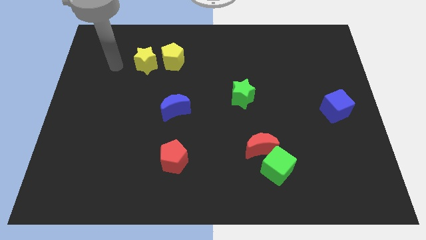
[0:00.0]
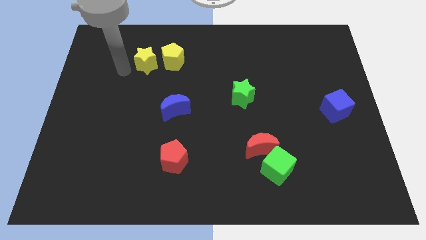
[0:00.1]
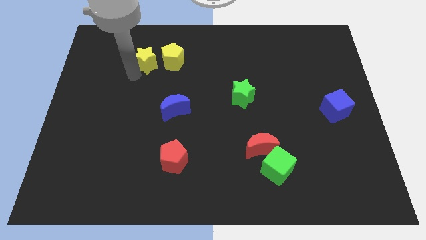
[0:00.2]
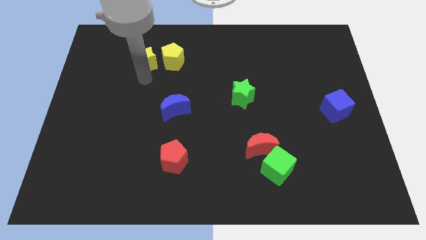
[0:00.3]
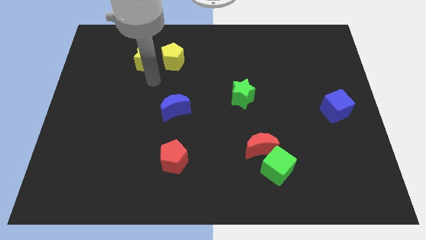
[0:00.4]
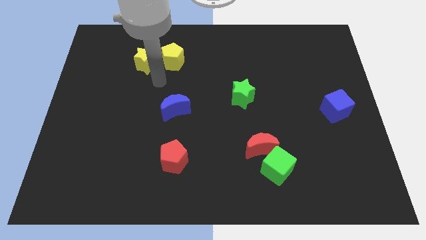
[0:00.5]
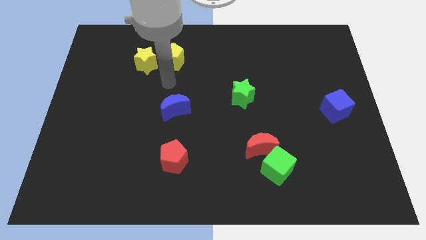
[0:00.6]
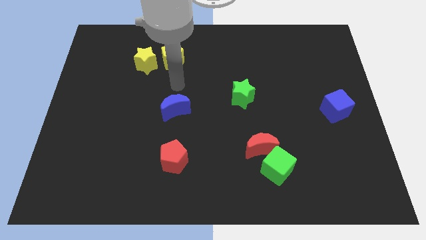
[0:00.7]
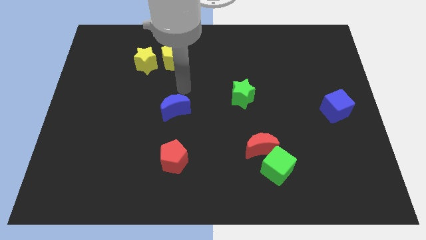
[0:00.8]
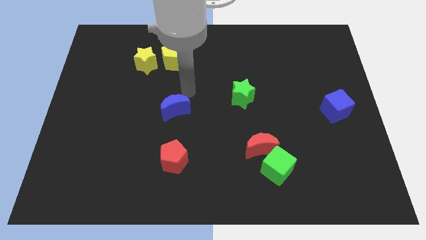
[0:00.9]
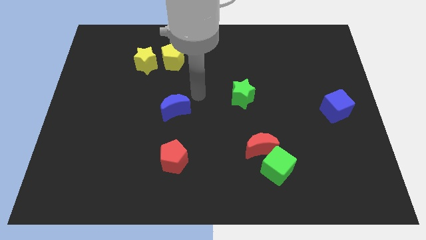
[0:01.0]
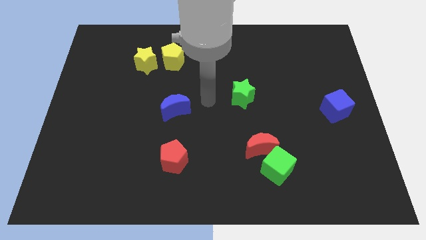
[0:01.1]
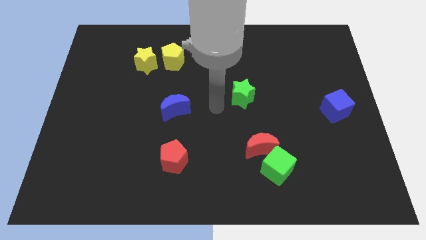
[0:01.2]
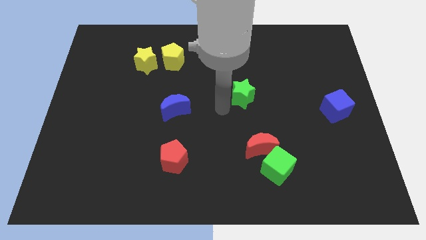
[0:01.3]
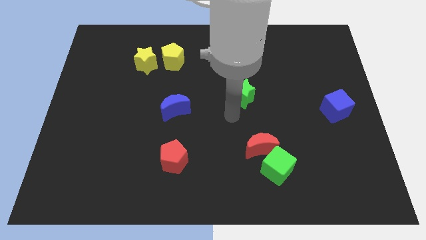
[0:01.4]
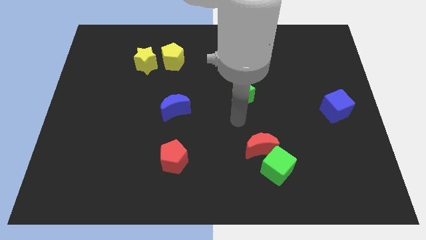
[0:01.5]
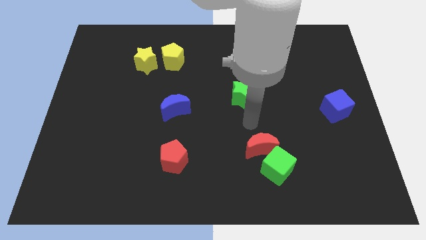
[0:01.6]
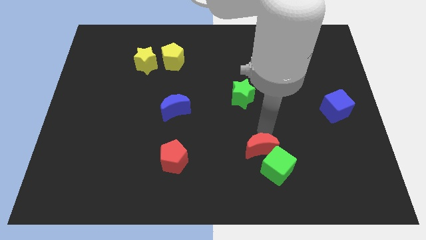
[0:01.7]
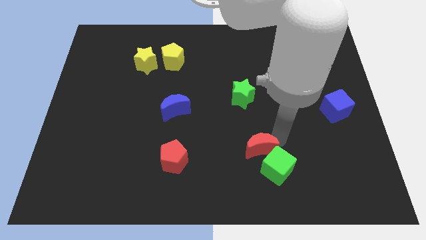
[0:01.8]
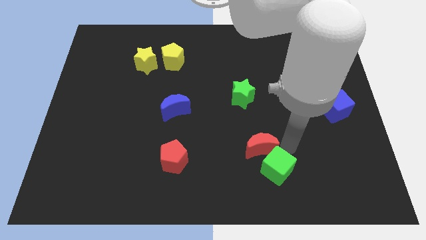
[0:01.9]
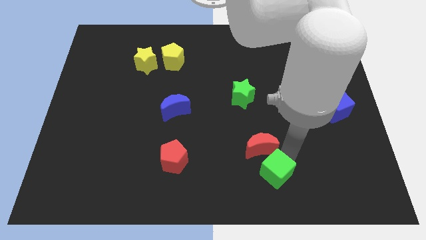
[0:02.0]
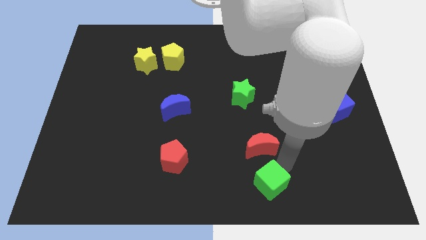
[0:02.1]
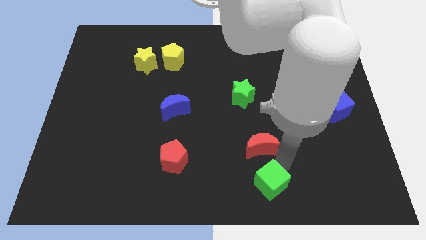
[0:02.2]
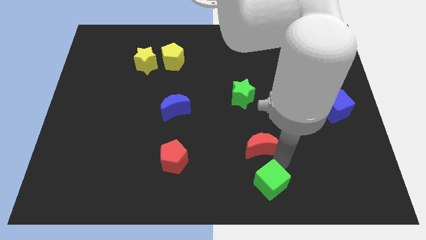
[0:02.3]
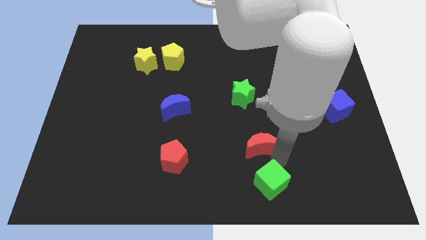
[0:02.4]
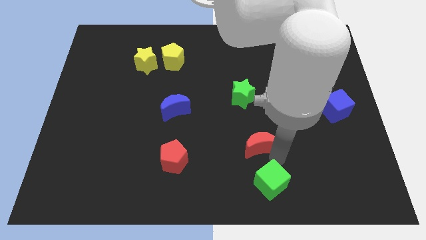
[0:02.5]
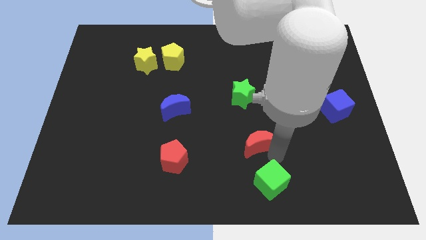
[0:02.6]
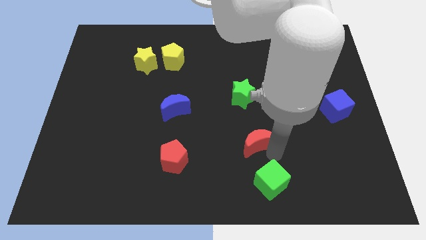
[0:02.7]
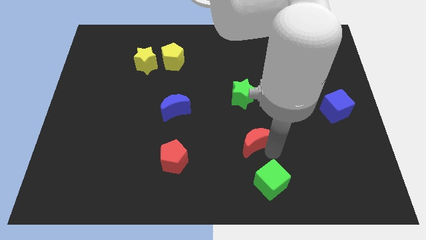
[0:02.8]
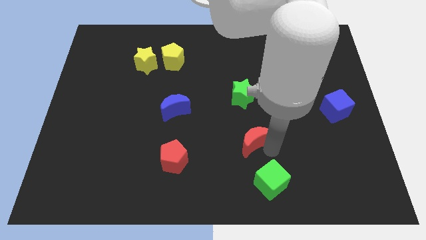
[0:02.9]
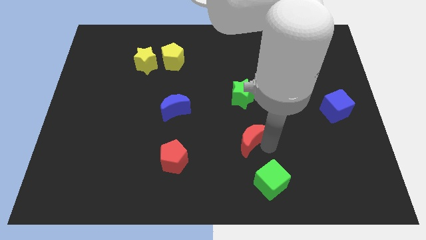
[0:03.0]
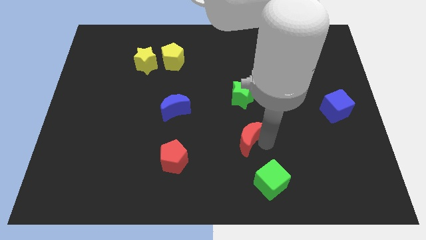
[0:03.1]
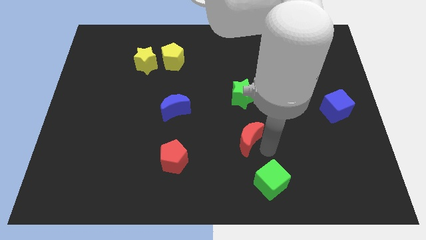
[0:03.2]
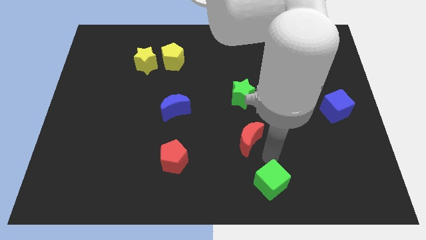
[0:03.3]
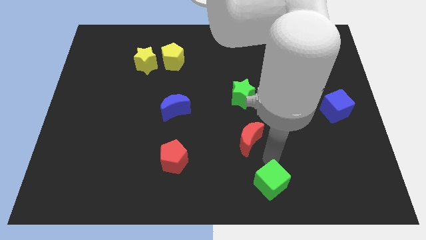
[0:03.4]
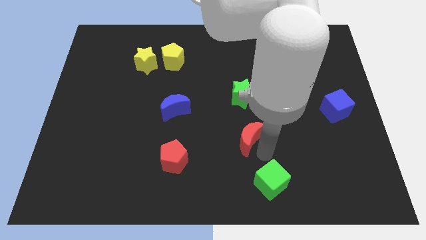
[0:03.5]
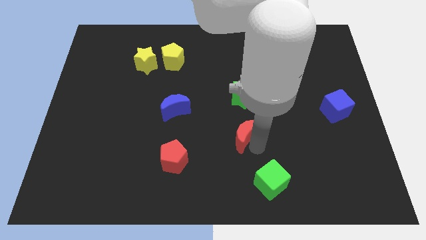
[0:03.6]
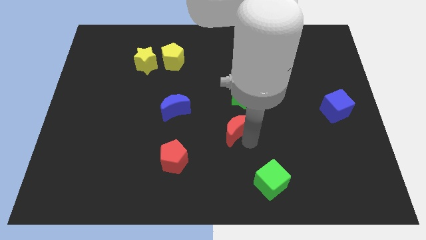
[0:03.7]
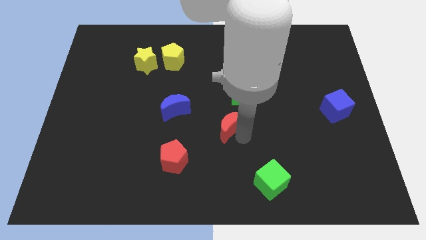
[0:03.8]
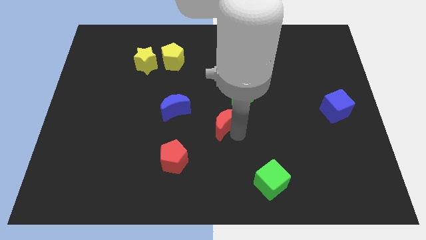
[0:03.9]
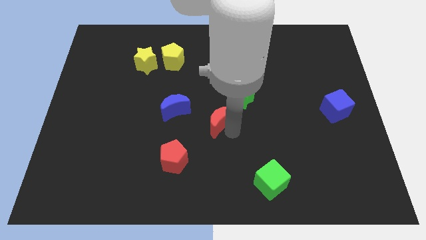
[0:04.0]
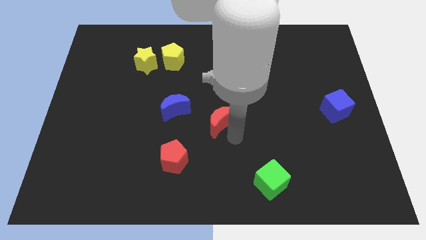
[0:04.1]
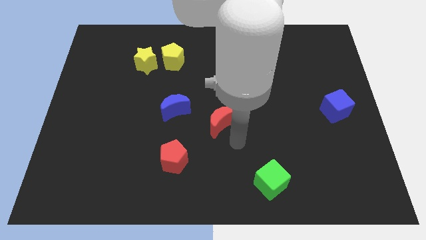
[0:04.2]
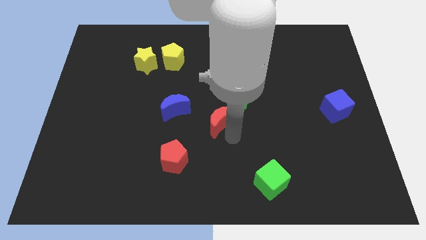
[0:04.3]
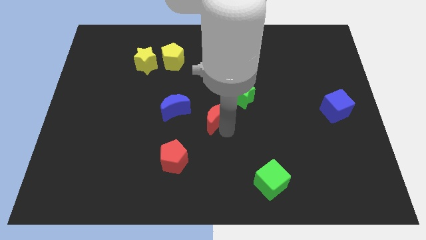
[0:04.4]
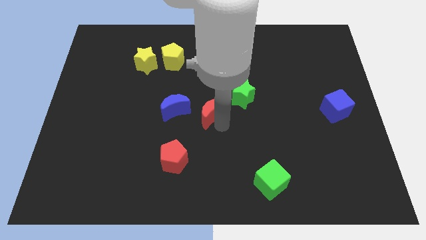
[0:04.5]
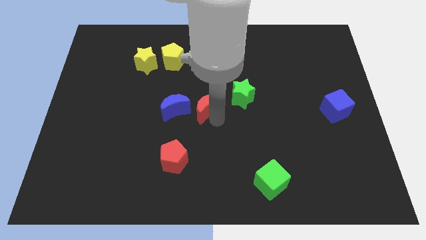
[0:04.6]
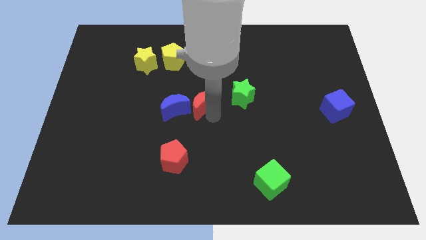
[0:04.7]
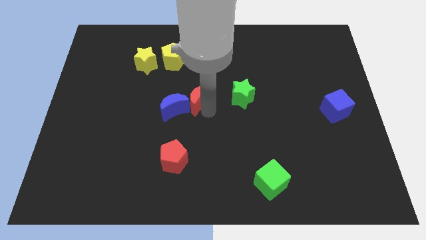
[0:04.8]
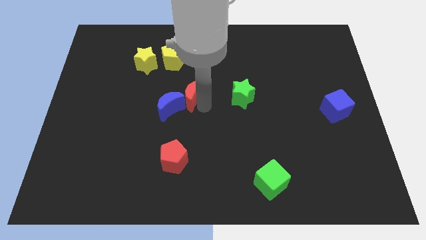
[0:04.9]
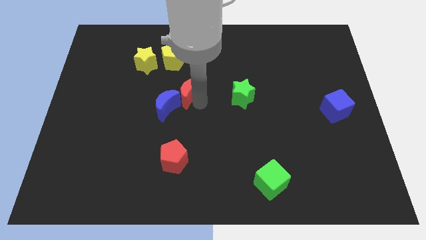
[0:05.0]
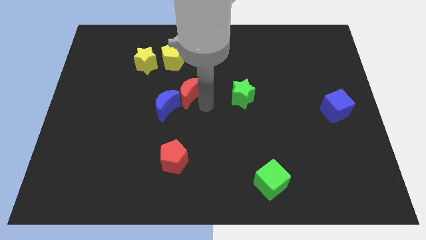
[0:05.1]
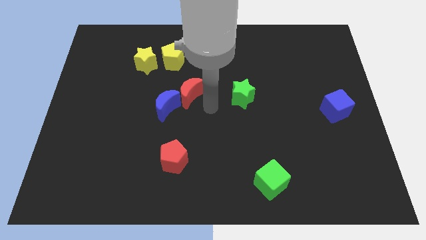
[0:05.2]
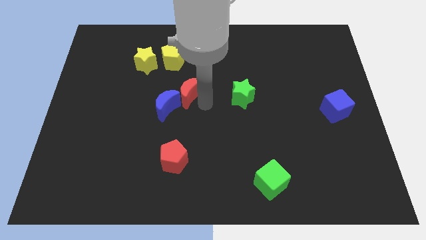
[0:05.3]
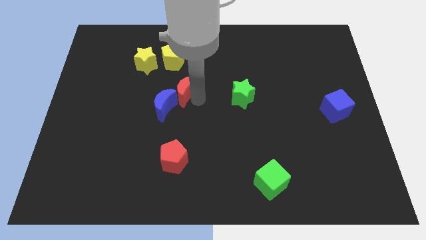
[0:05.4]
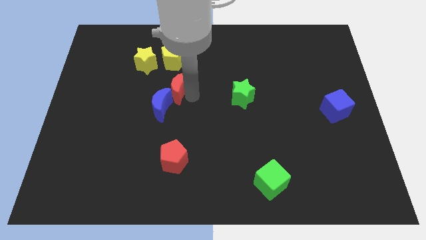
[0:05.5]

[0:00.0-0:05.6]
slide the red moon to the bottom right of the yellow star

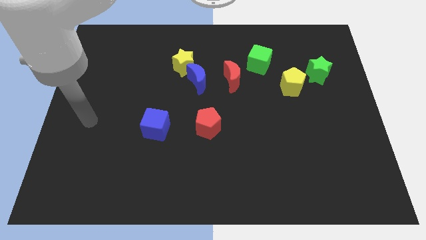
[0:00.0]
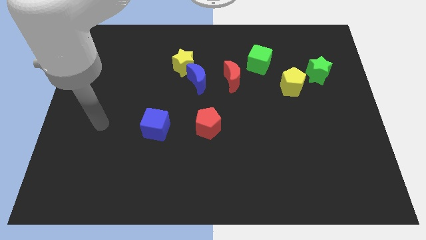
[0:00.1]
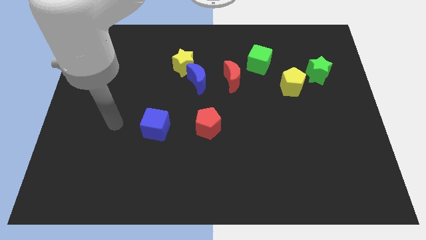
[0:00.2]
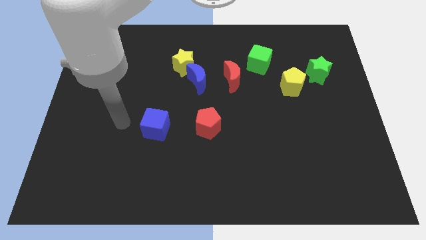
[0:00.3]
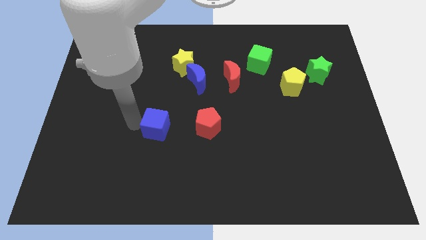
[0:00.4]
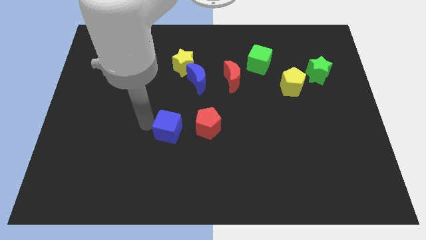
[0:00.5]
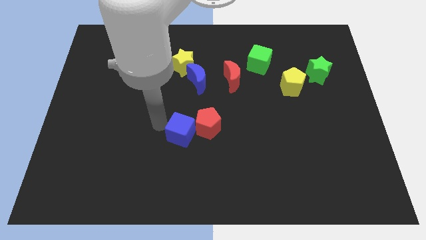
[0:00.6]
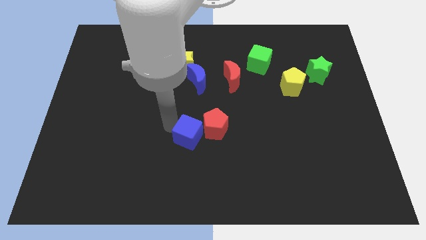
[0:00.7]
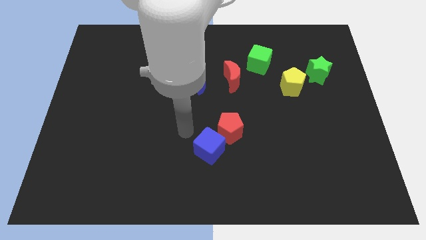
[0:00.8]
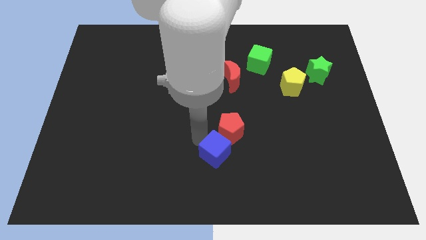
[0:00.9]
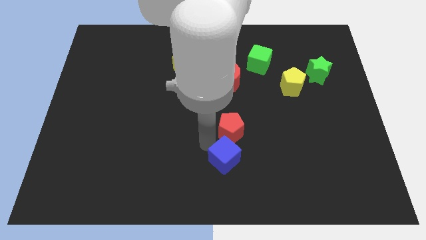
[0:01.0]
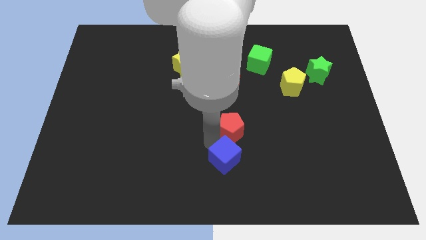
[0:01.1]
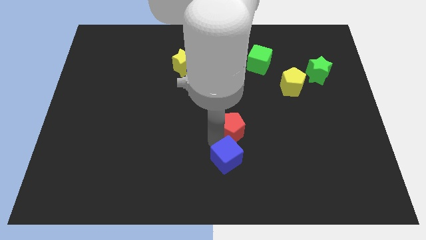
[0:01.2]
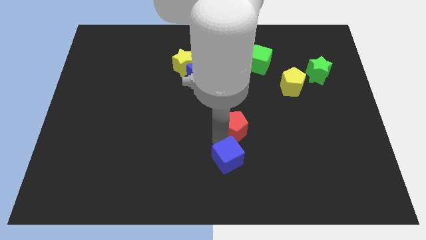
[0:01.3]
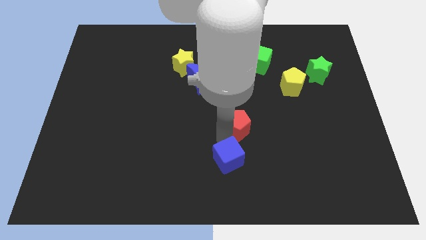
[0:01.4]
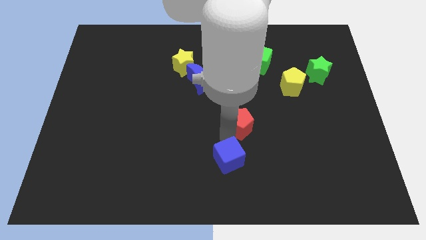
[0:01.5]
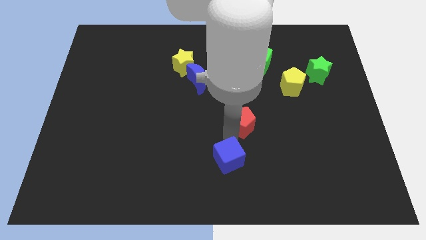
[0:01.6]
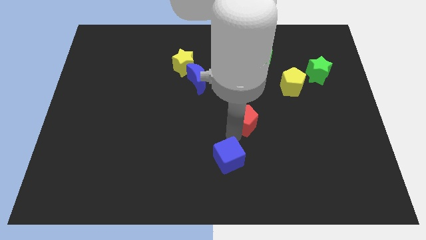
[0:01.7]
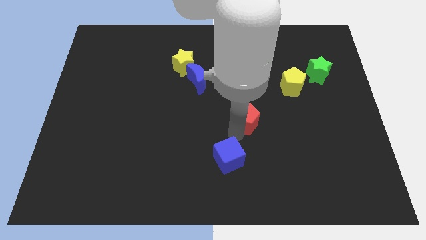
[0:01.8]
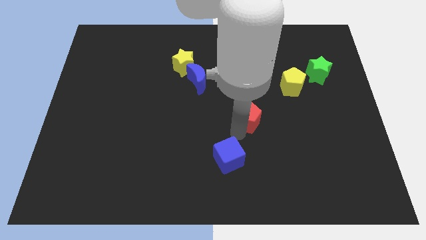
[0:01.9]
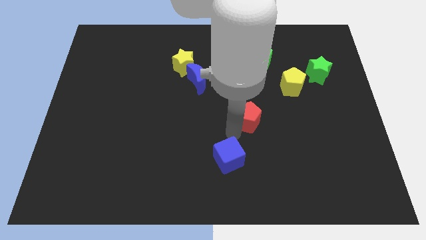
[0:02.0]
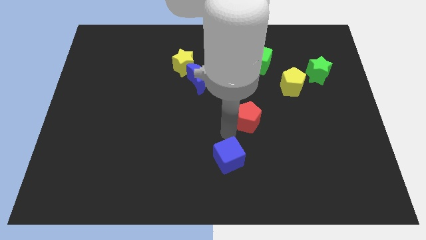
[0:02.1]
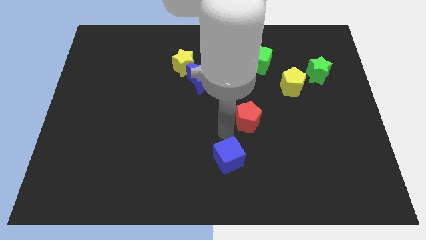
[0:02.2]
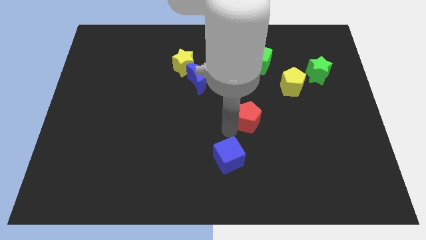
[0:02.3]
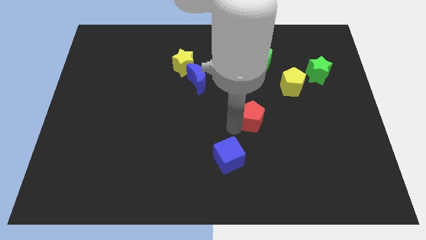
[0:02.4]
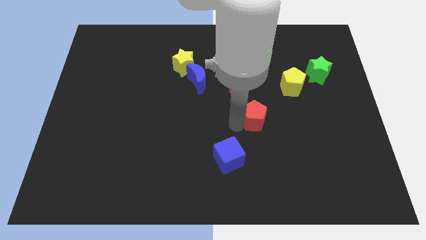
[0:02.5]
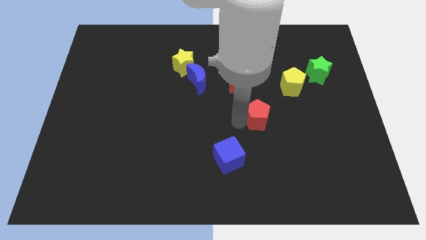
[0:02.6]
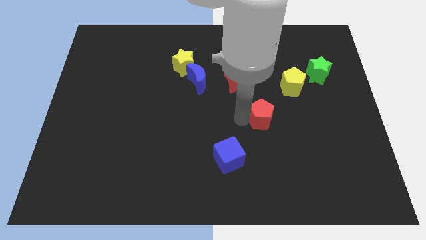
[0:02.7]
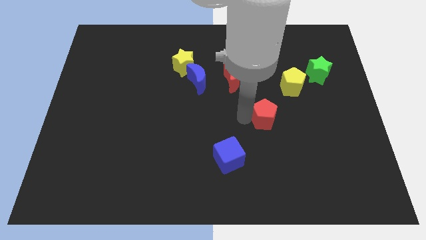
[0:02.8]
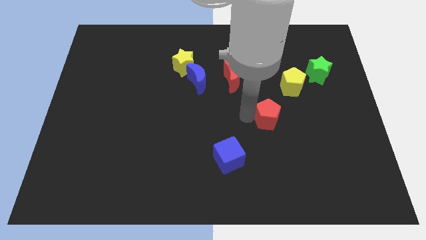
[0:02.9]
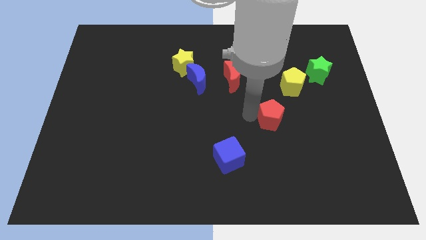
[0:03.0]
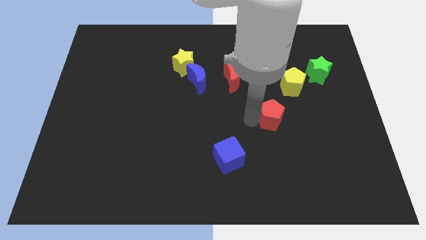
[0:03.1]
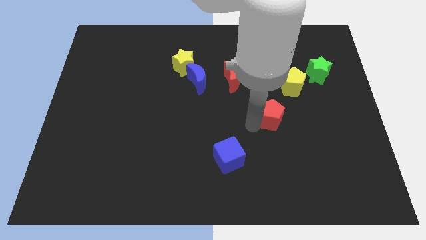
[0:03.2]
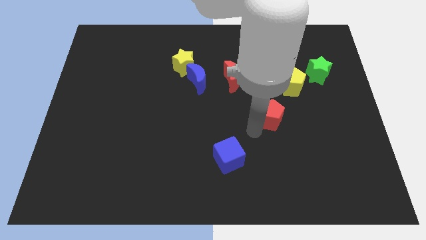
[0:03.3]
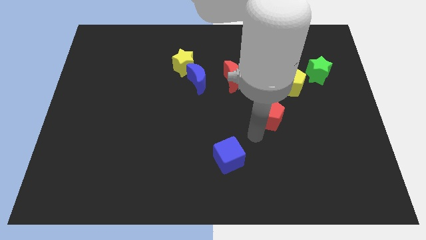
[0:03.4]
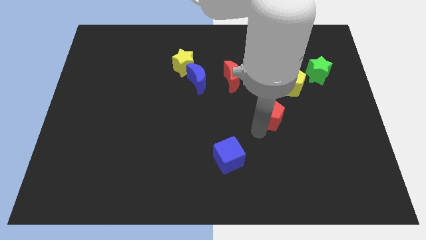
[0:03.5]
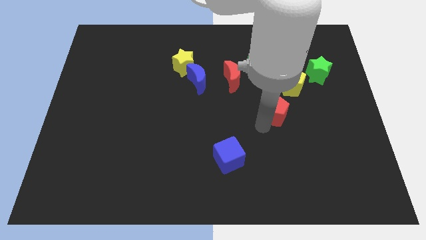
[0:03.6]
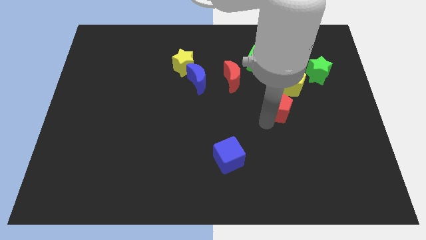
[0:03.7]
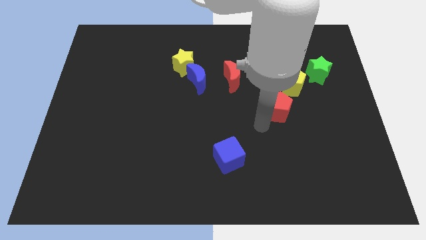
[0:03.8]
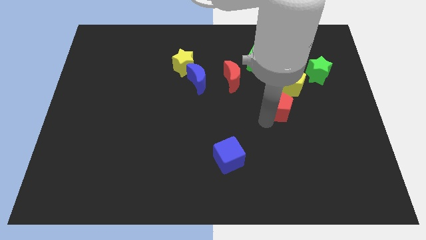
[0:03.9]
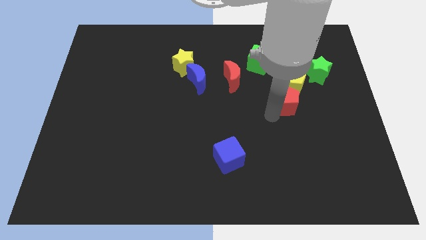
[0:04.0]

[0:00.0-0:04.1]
move the red pentagon diagonally down and to the left of the green star
